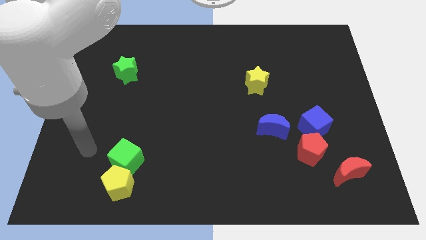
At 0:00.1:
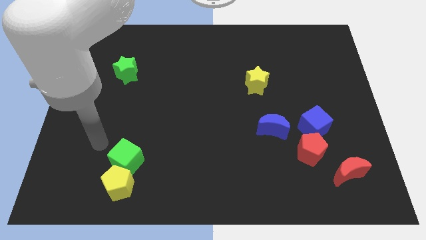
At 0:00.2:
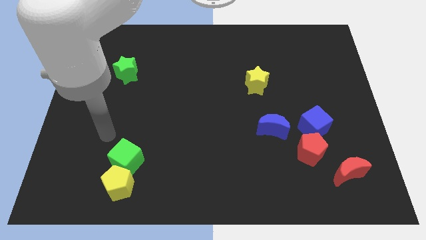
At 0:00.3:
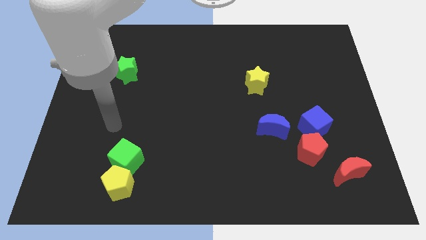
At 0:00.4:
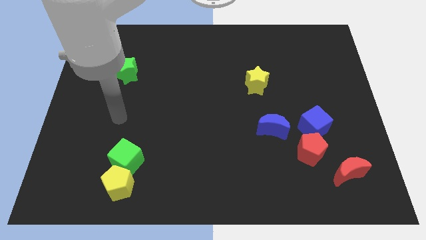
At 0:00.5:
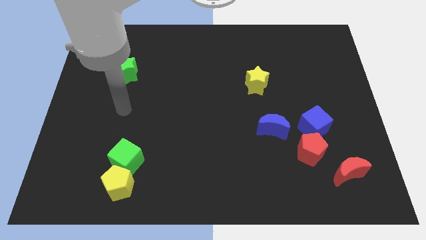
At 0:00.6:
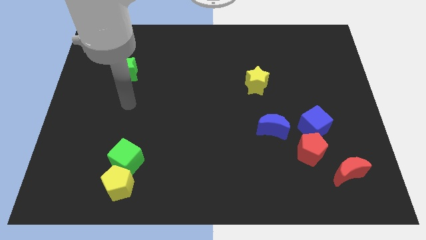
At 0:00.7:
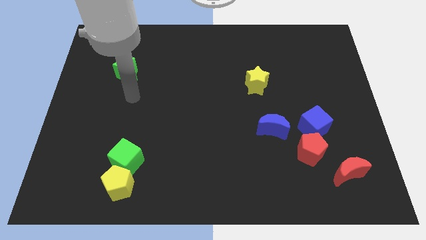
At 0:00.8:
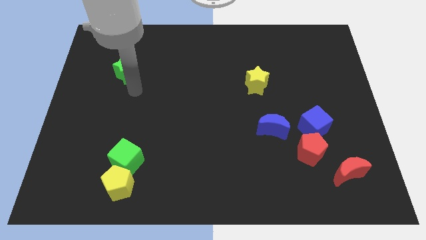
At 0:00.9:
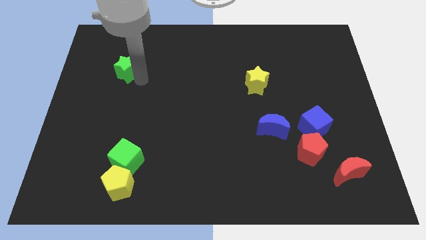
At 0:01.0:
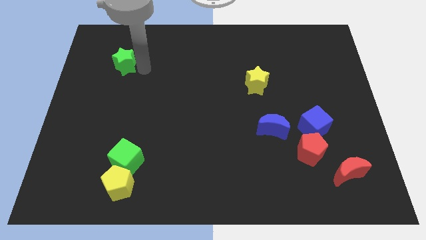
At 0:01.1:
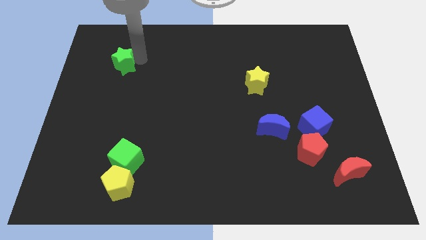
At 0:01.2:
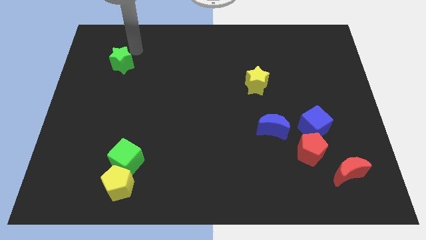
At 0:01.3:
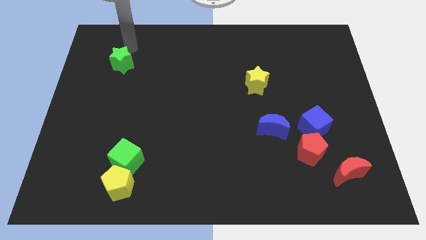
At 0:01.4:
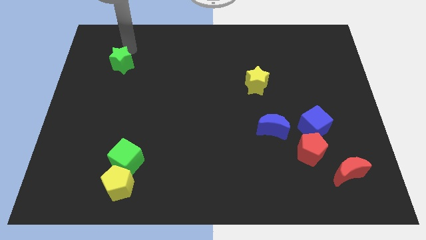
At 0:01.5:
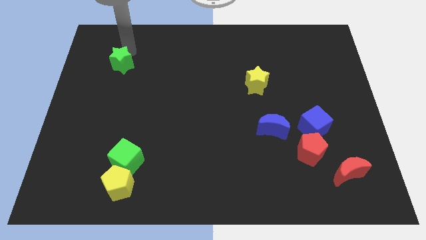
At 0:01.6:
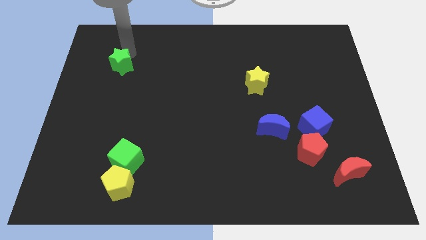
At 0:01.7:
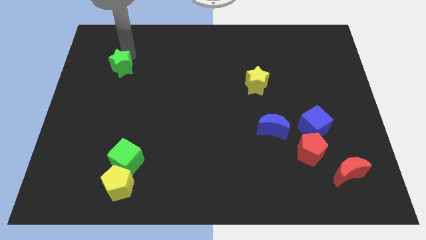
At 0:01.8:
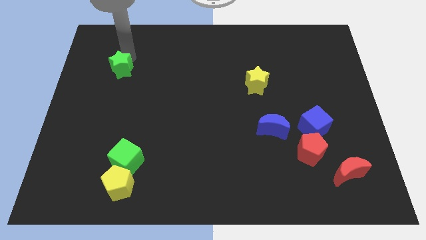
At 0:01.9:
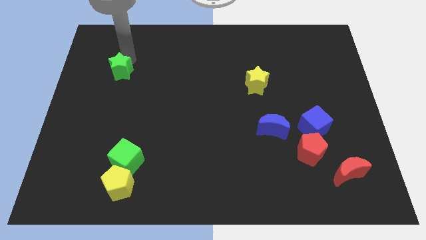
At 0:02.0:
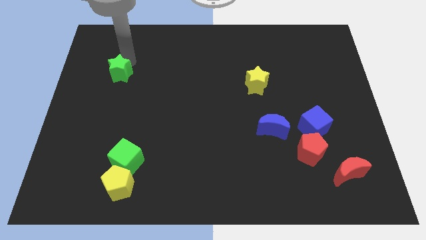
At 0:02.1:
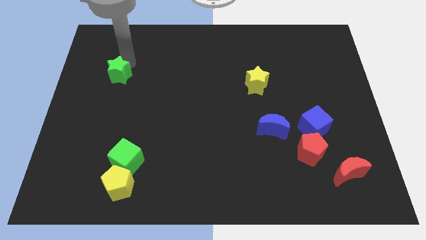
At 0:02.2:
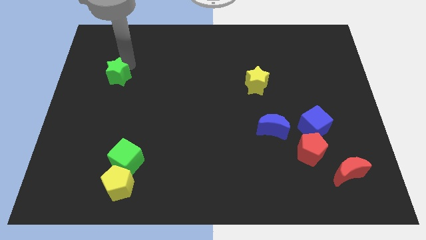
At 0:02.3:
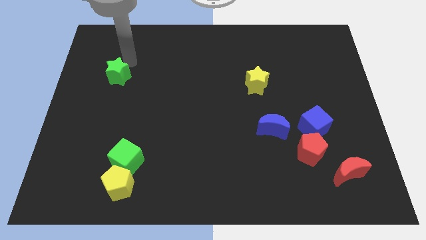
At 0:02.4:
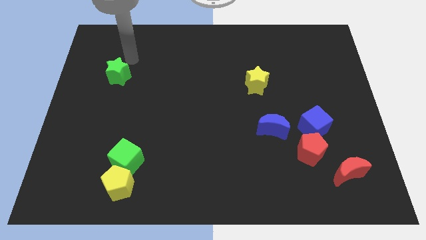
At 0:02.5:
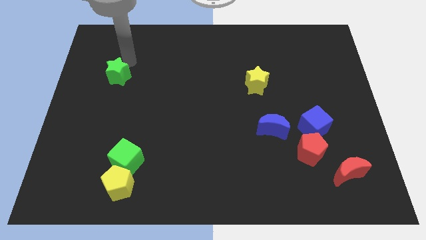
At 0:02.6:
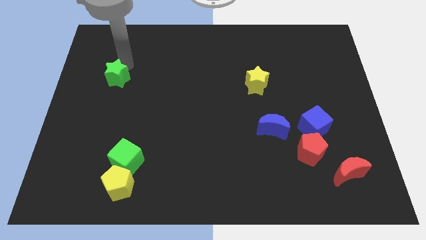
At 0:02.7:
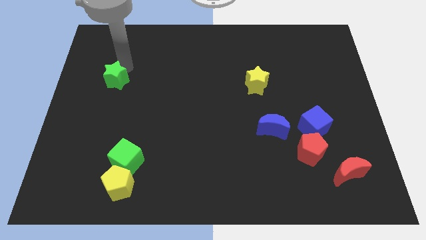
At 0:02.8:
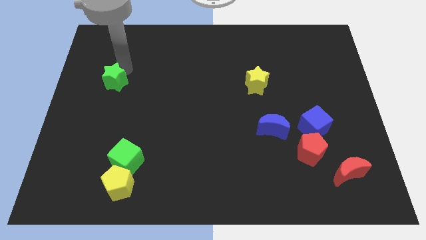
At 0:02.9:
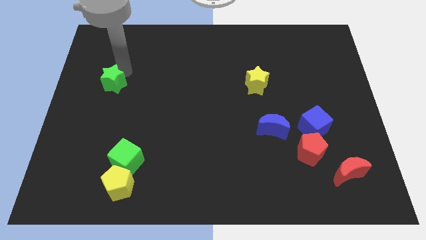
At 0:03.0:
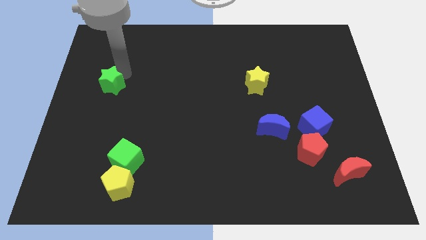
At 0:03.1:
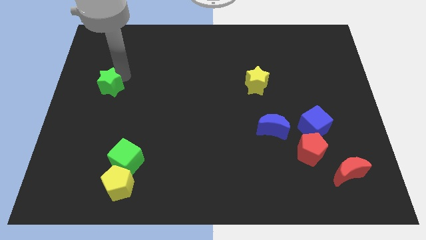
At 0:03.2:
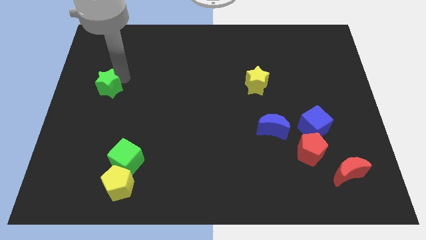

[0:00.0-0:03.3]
move the green star to the left side of the board

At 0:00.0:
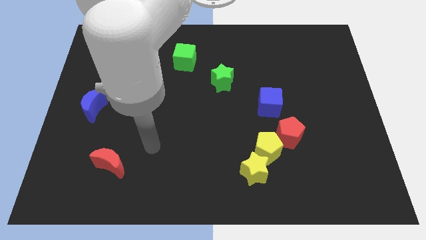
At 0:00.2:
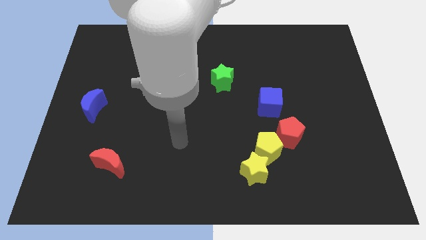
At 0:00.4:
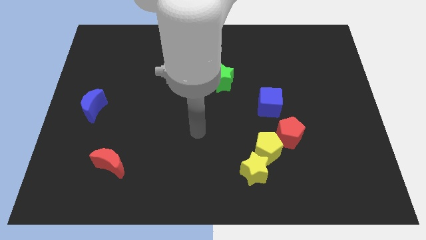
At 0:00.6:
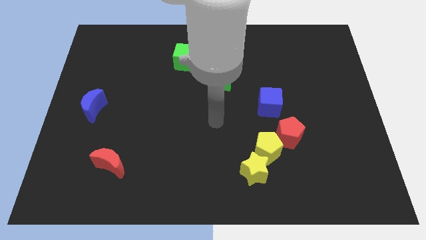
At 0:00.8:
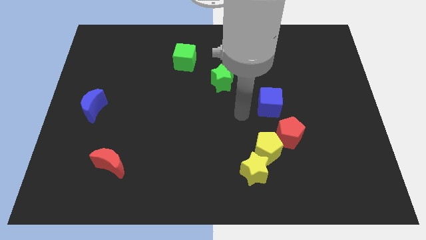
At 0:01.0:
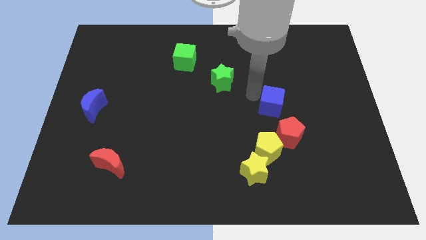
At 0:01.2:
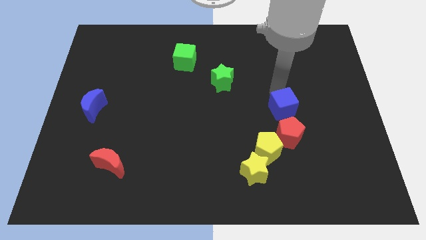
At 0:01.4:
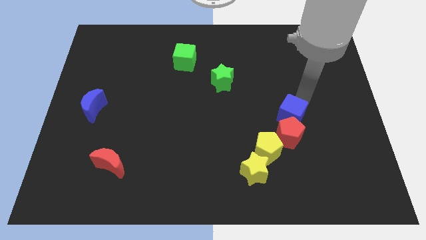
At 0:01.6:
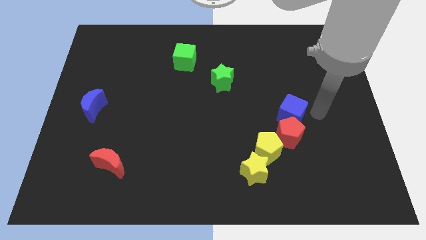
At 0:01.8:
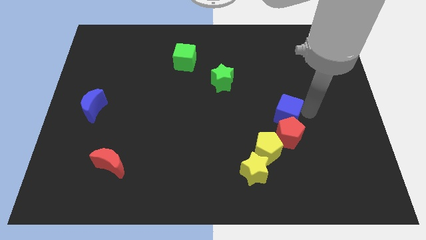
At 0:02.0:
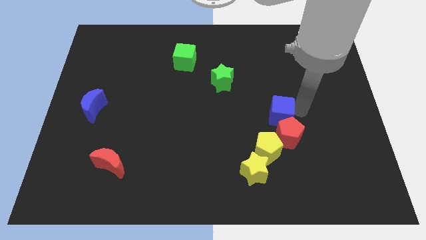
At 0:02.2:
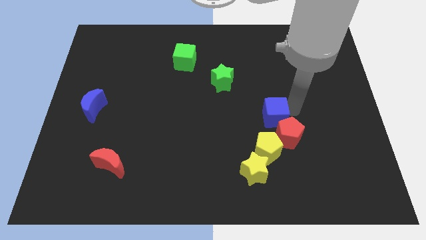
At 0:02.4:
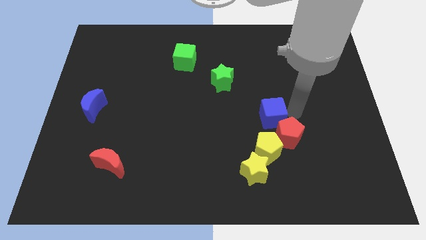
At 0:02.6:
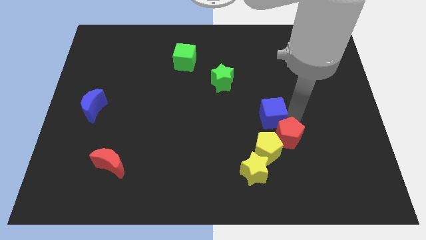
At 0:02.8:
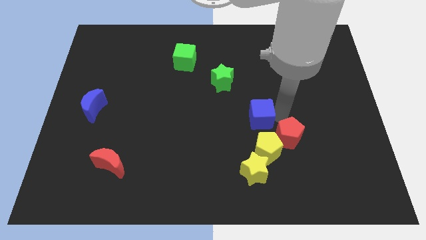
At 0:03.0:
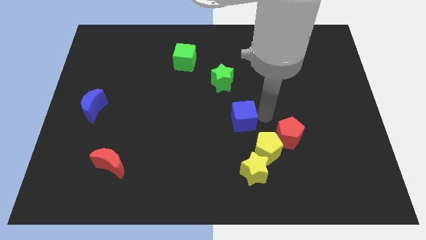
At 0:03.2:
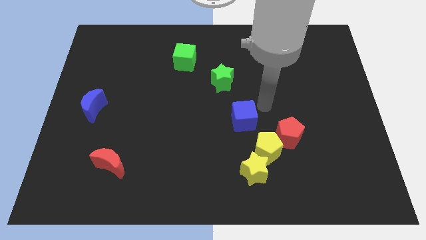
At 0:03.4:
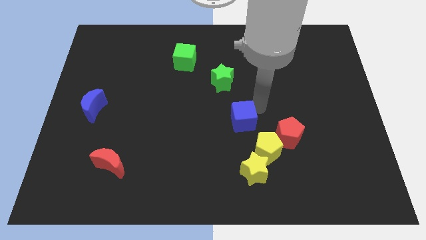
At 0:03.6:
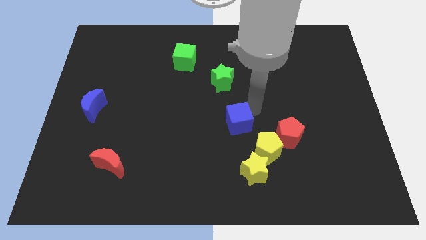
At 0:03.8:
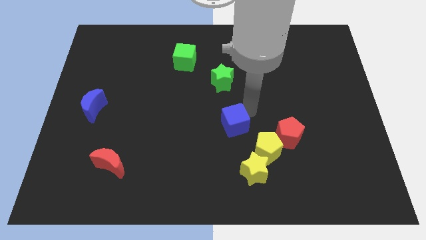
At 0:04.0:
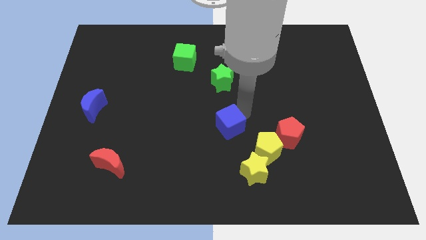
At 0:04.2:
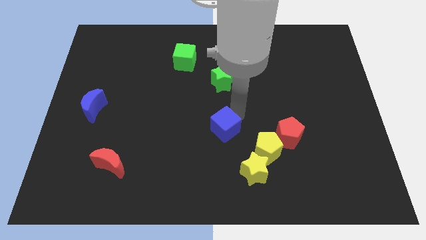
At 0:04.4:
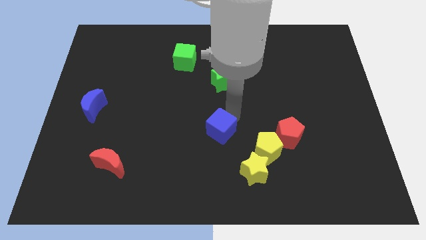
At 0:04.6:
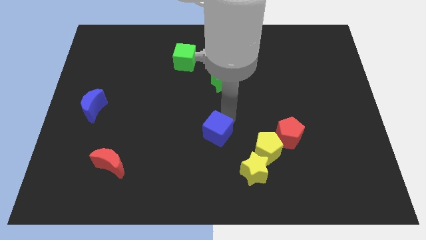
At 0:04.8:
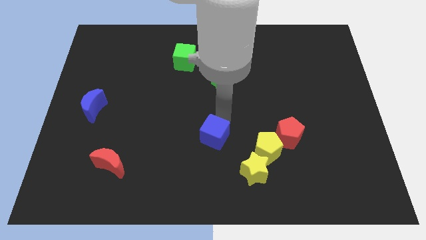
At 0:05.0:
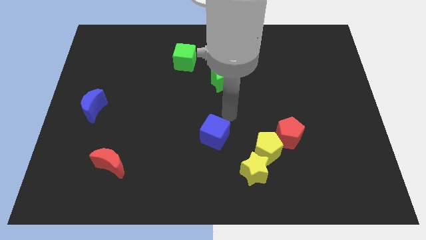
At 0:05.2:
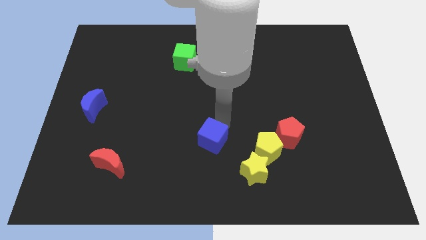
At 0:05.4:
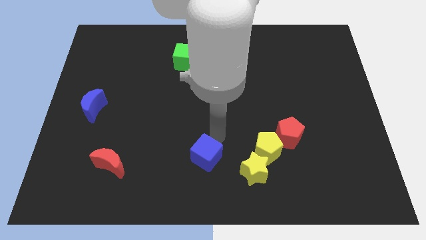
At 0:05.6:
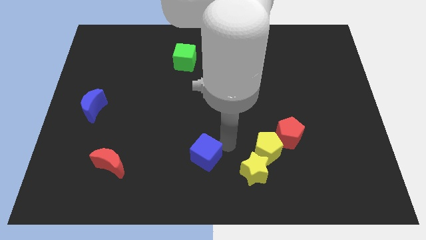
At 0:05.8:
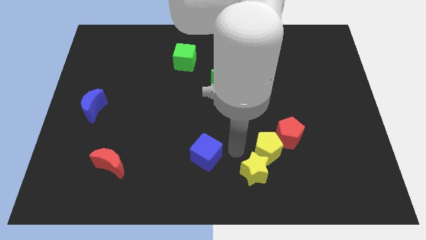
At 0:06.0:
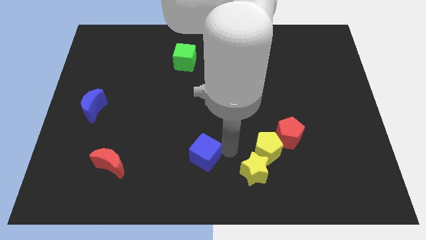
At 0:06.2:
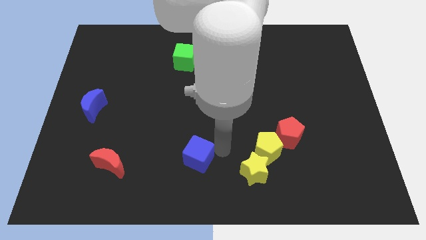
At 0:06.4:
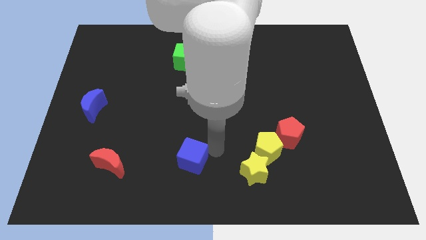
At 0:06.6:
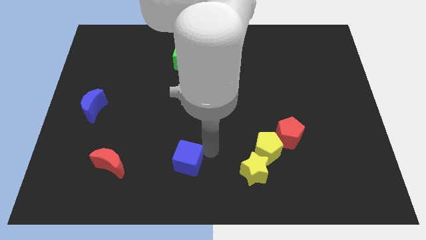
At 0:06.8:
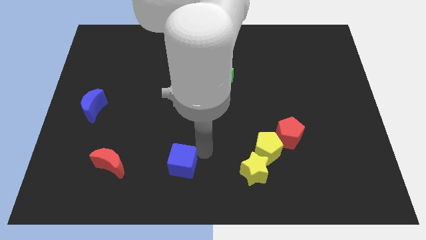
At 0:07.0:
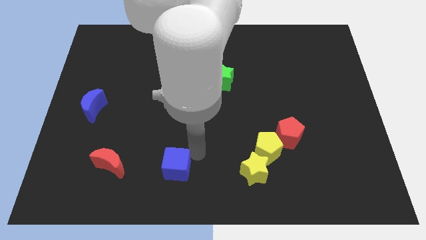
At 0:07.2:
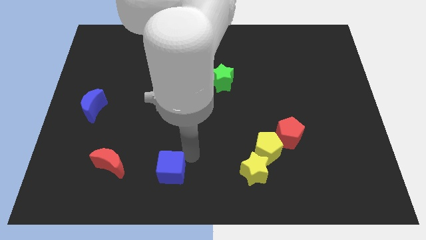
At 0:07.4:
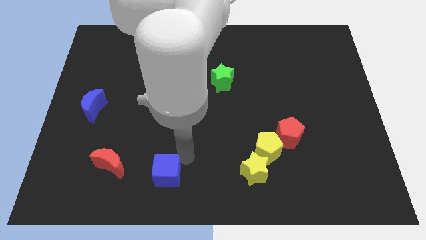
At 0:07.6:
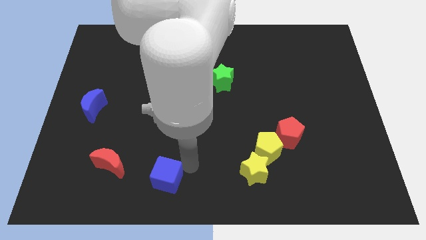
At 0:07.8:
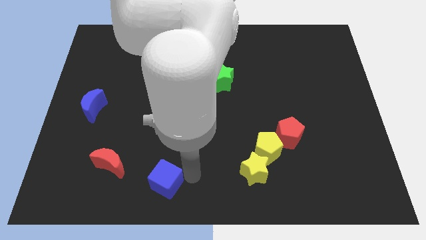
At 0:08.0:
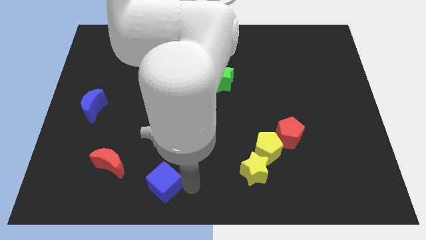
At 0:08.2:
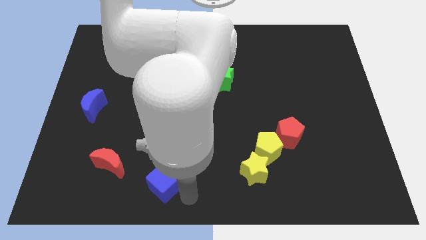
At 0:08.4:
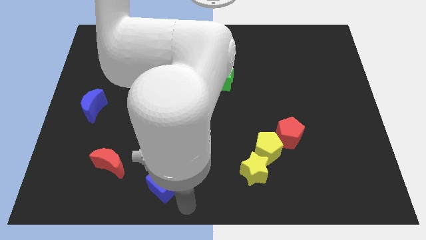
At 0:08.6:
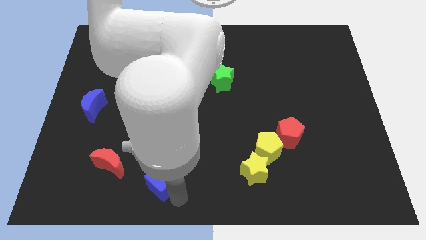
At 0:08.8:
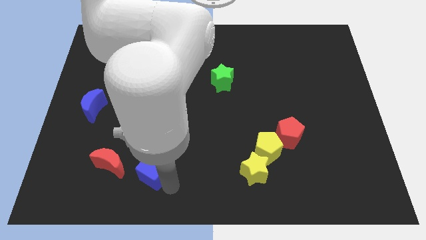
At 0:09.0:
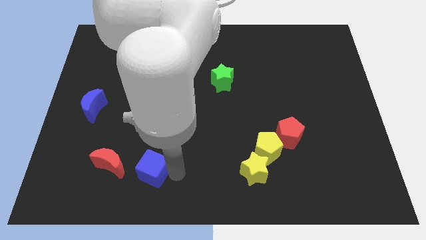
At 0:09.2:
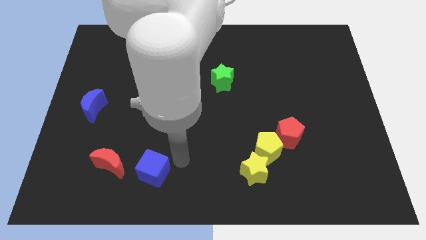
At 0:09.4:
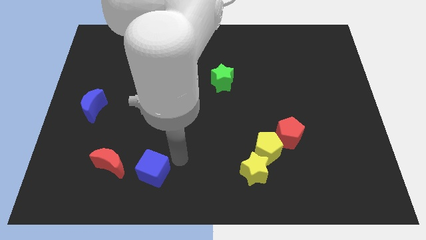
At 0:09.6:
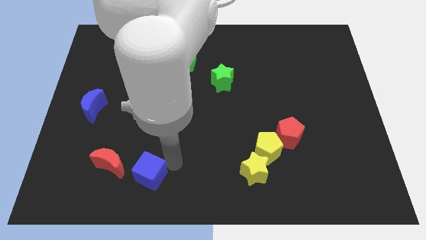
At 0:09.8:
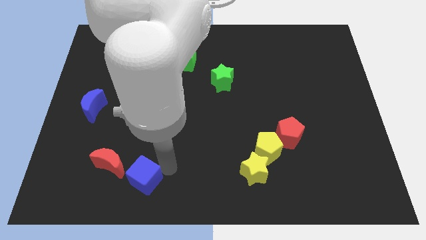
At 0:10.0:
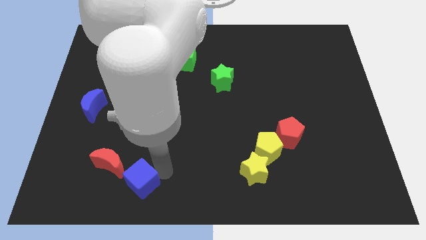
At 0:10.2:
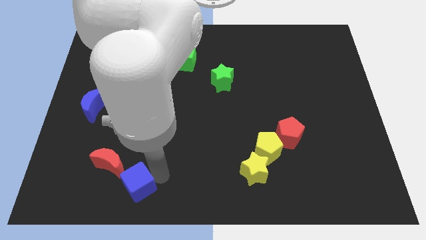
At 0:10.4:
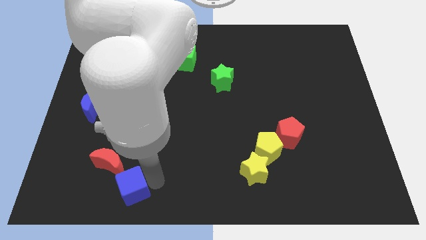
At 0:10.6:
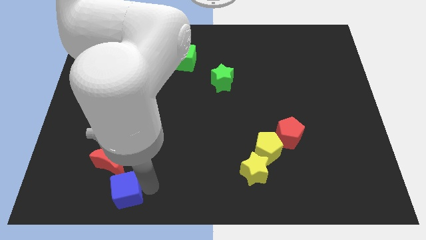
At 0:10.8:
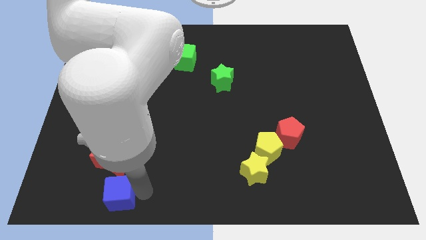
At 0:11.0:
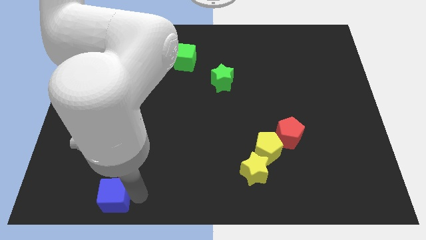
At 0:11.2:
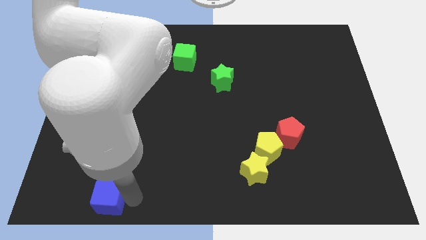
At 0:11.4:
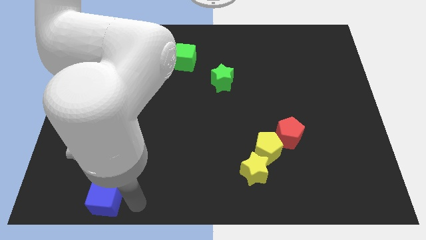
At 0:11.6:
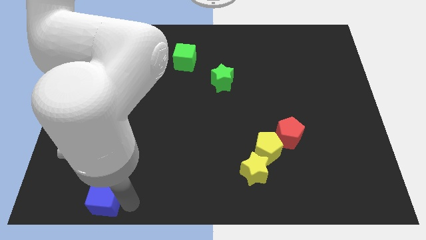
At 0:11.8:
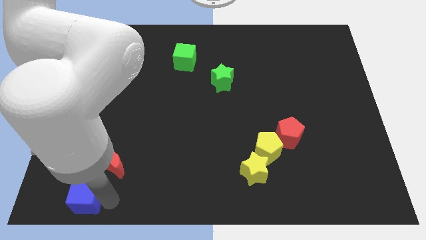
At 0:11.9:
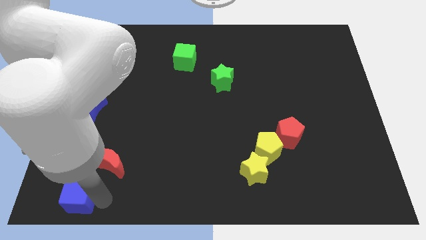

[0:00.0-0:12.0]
put the blue cube to the bottom left
